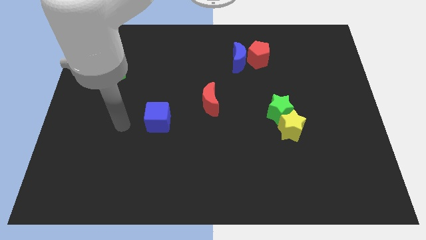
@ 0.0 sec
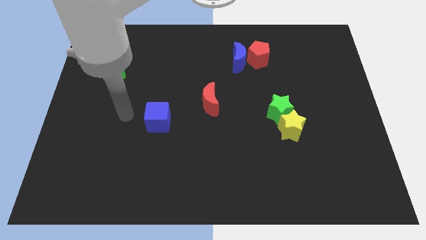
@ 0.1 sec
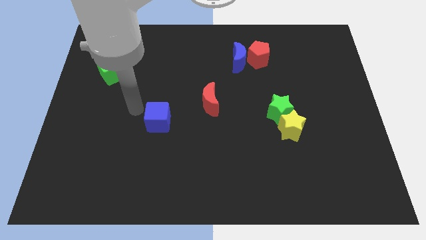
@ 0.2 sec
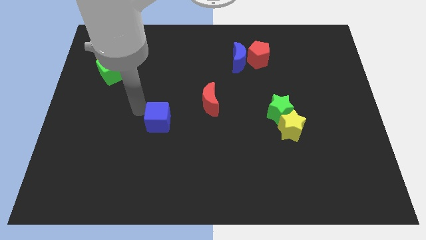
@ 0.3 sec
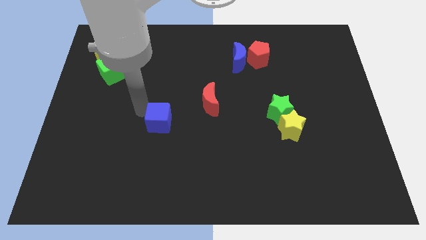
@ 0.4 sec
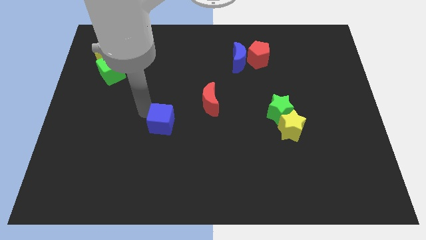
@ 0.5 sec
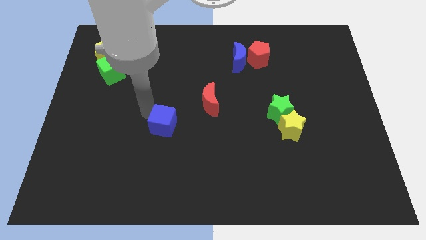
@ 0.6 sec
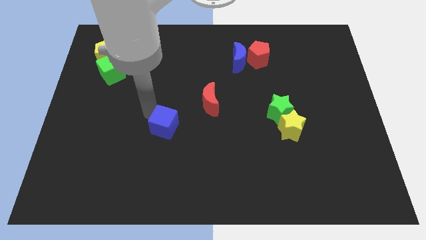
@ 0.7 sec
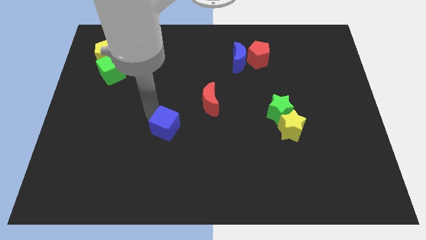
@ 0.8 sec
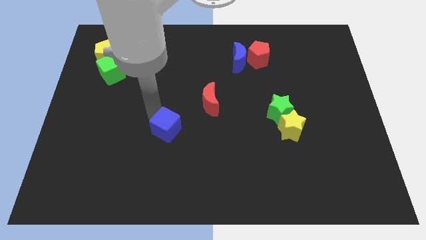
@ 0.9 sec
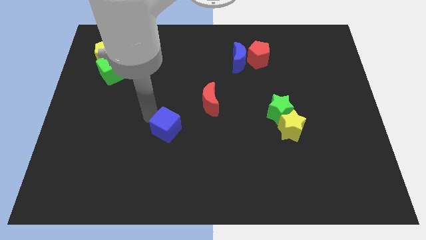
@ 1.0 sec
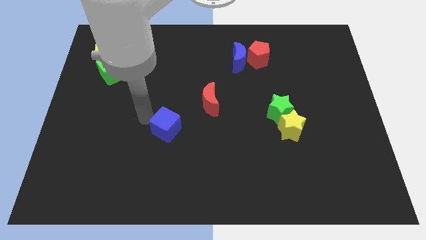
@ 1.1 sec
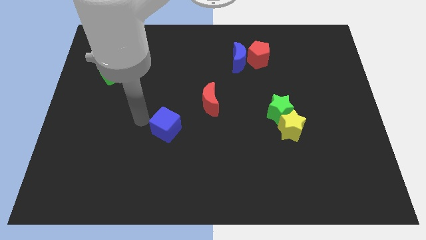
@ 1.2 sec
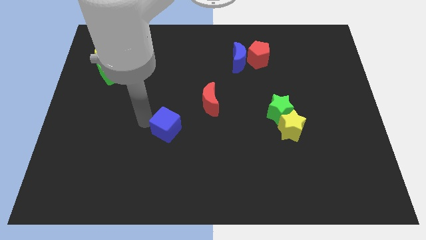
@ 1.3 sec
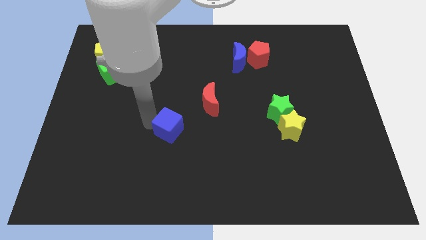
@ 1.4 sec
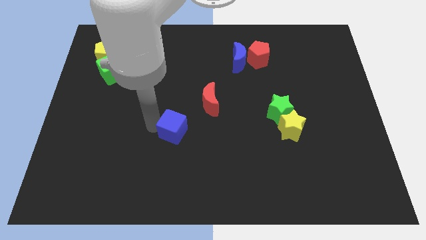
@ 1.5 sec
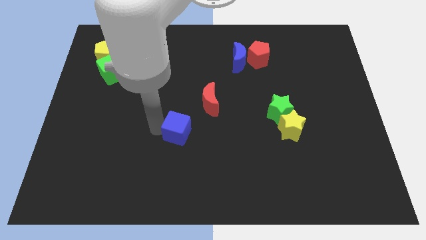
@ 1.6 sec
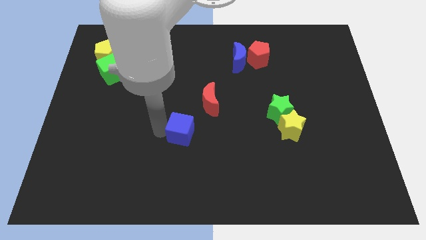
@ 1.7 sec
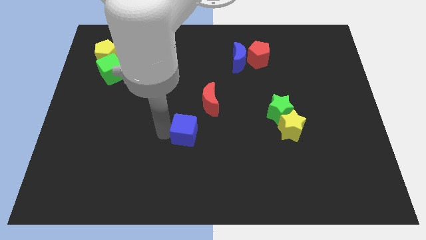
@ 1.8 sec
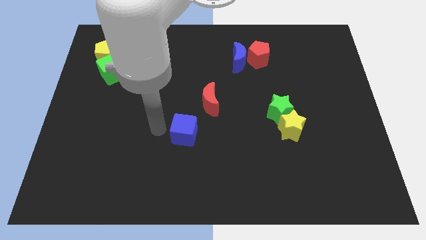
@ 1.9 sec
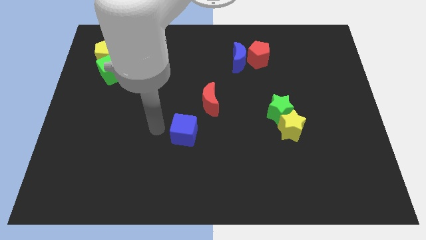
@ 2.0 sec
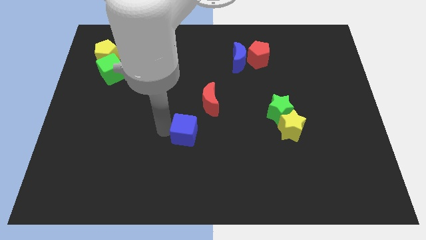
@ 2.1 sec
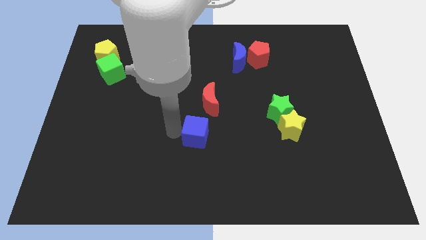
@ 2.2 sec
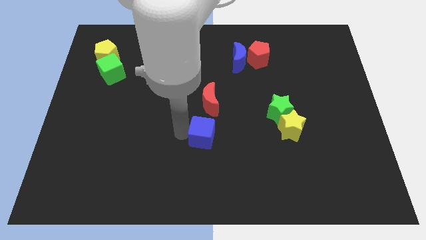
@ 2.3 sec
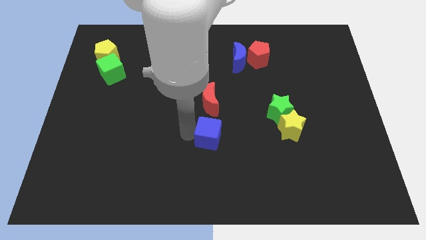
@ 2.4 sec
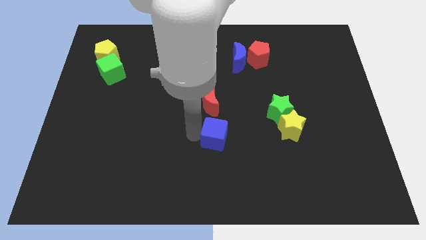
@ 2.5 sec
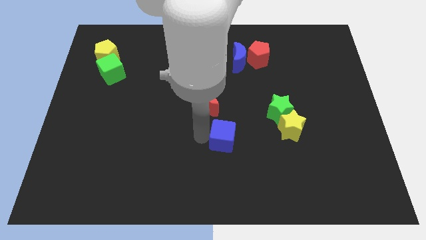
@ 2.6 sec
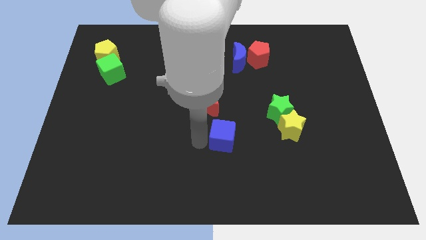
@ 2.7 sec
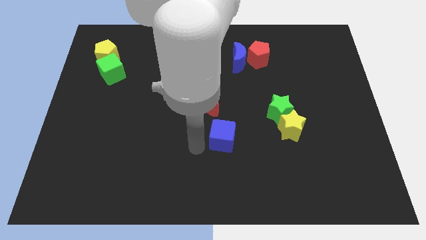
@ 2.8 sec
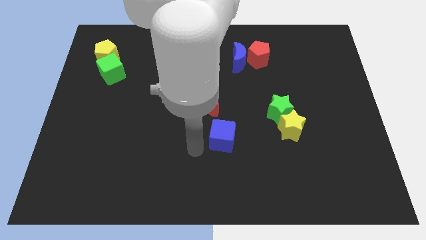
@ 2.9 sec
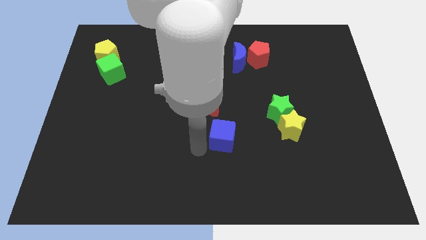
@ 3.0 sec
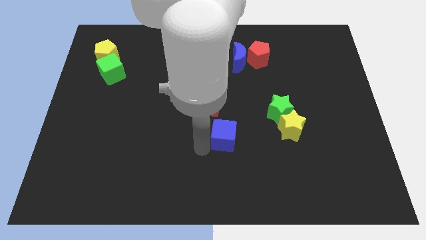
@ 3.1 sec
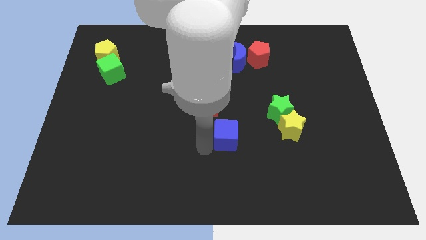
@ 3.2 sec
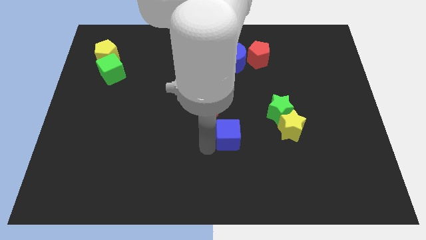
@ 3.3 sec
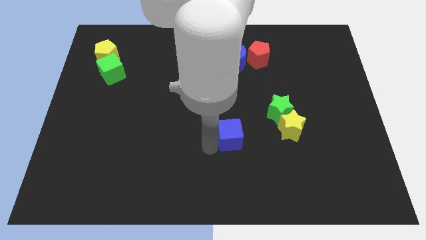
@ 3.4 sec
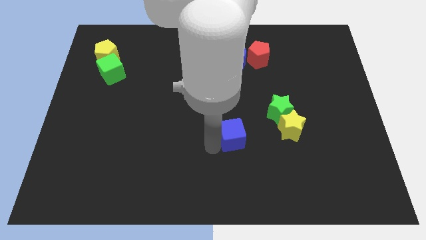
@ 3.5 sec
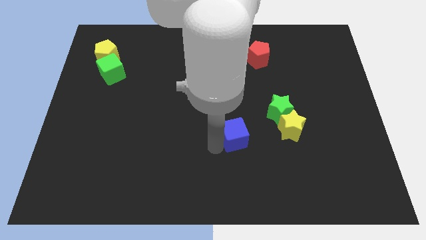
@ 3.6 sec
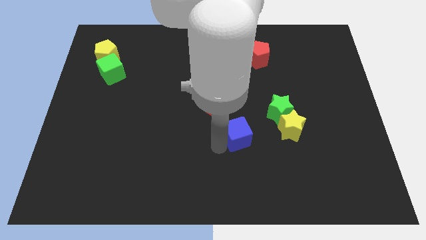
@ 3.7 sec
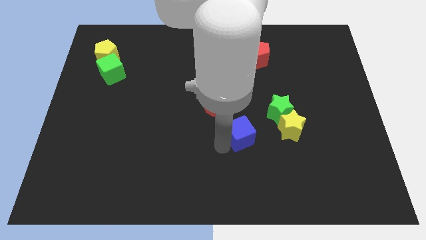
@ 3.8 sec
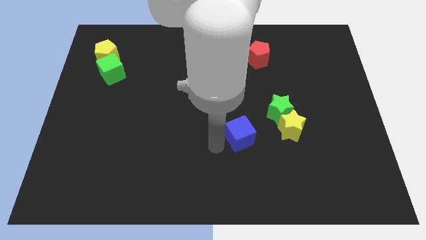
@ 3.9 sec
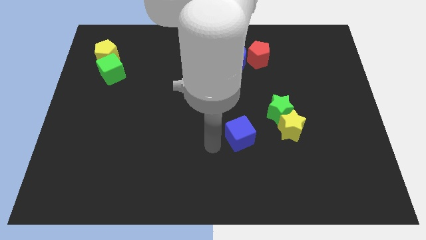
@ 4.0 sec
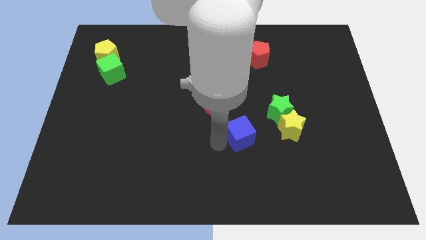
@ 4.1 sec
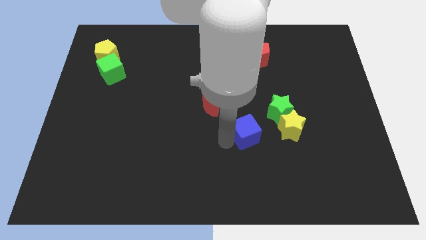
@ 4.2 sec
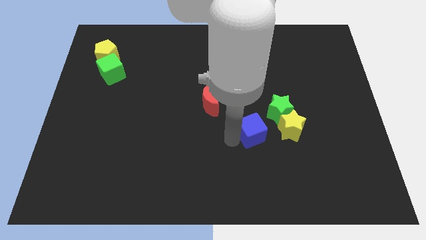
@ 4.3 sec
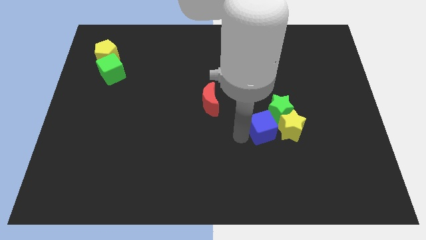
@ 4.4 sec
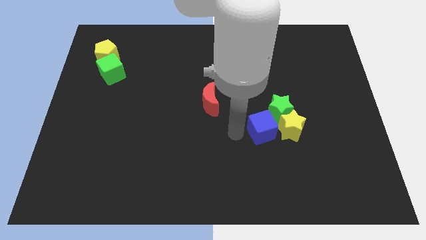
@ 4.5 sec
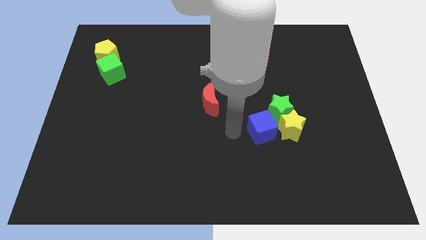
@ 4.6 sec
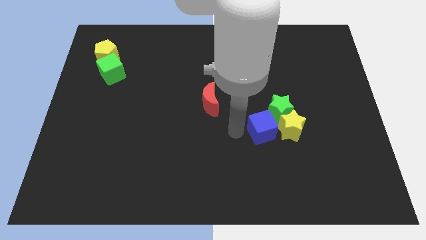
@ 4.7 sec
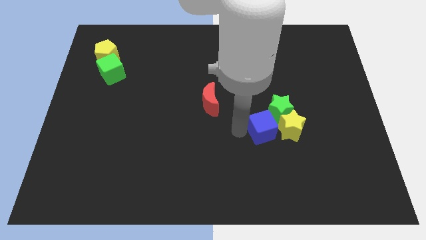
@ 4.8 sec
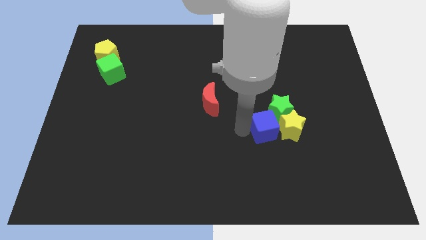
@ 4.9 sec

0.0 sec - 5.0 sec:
put the blue cube towards the yellow star

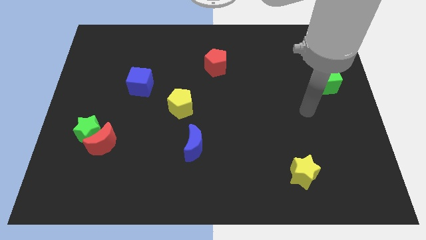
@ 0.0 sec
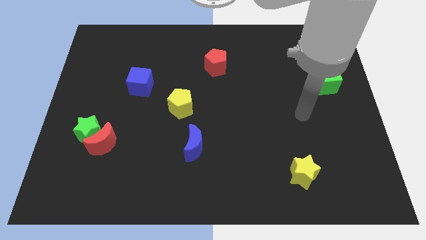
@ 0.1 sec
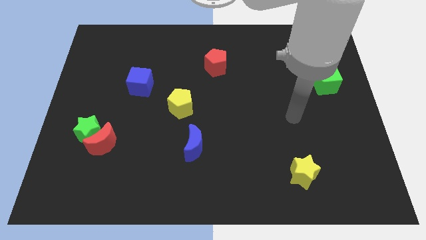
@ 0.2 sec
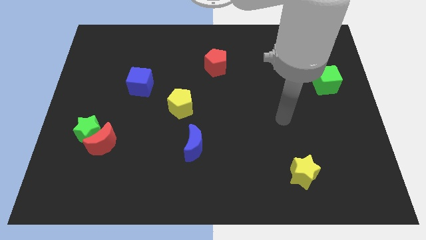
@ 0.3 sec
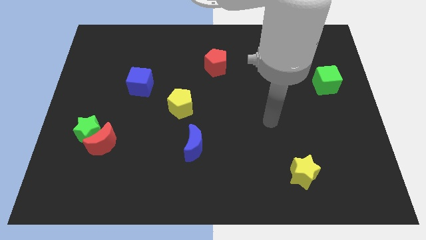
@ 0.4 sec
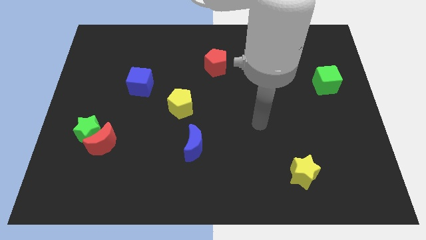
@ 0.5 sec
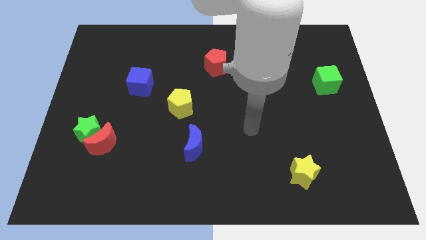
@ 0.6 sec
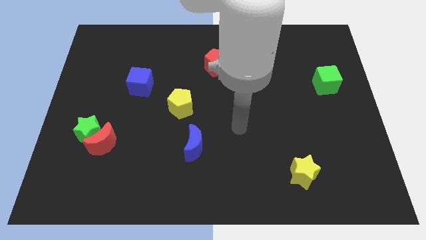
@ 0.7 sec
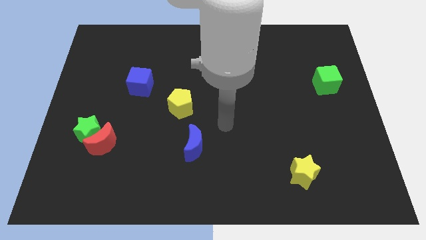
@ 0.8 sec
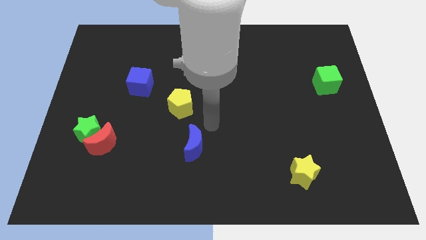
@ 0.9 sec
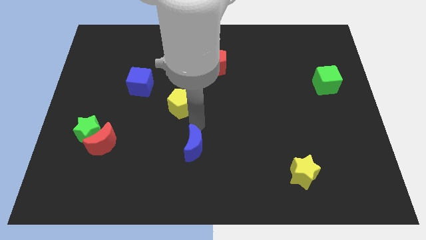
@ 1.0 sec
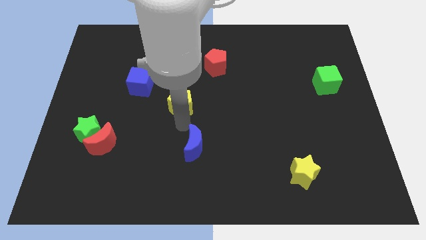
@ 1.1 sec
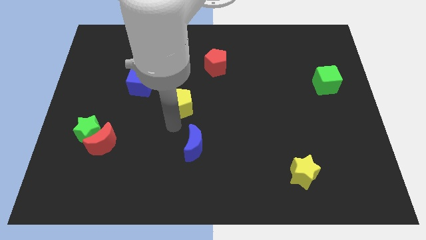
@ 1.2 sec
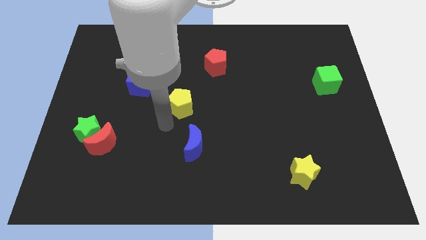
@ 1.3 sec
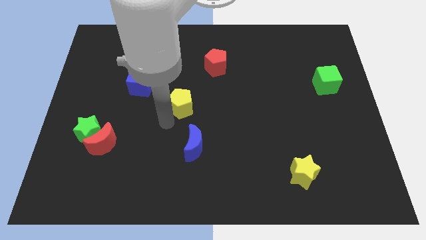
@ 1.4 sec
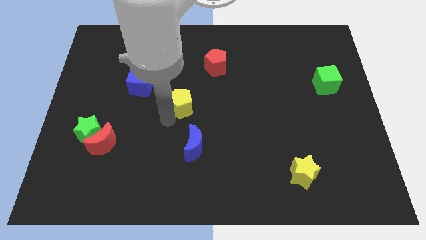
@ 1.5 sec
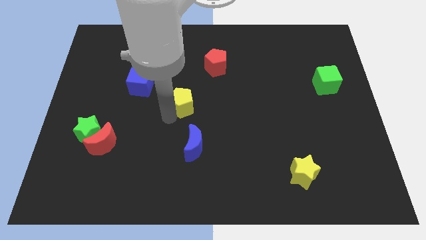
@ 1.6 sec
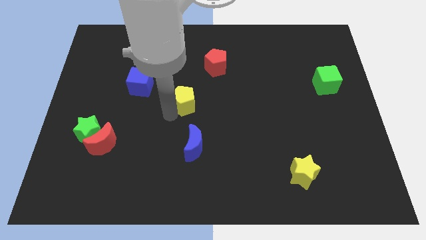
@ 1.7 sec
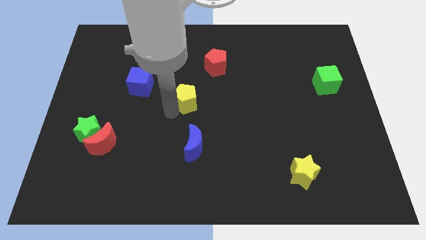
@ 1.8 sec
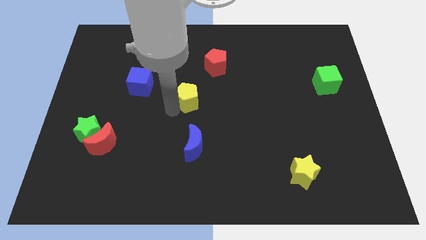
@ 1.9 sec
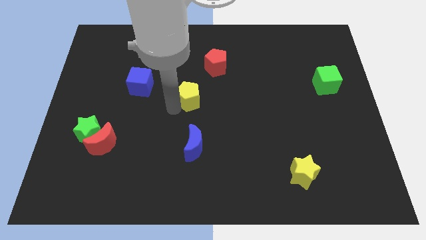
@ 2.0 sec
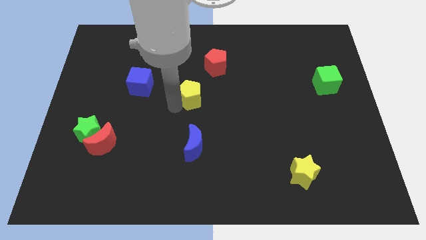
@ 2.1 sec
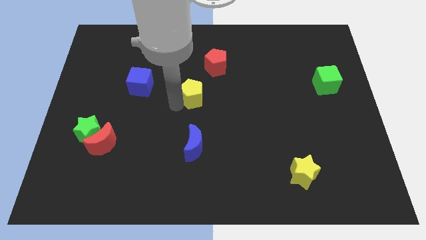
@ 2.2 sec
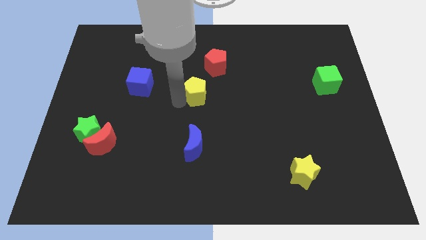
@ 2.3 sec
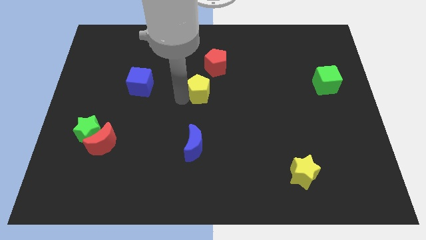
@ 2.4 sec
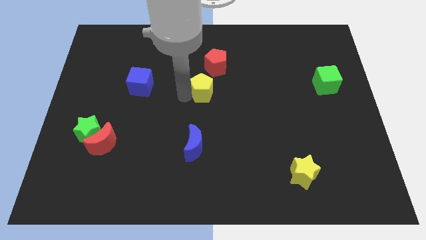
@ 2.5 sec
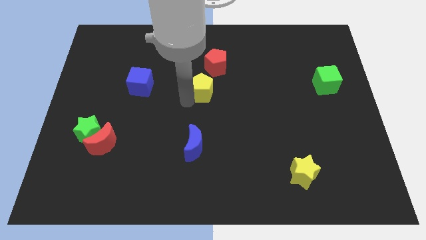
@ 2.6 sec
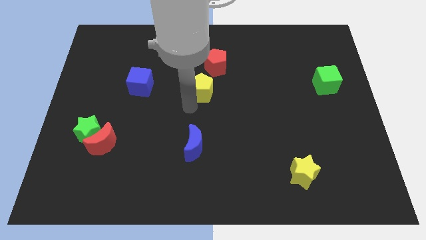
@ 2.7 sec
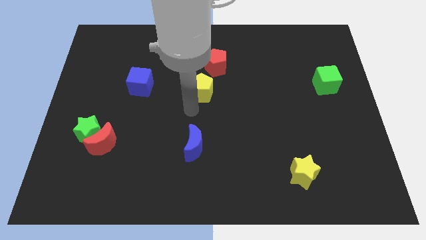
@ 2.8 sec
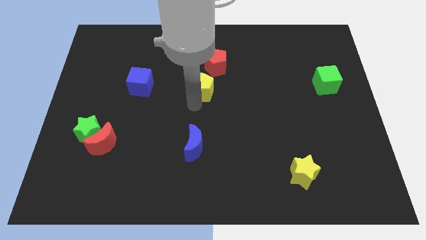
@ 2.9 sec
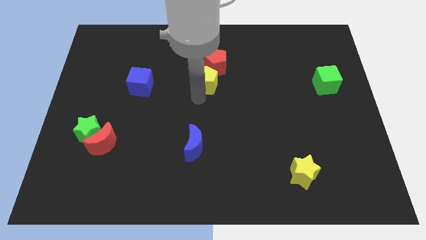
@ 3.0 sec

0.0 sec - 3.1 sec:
push the yellow pentagon to the red pentagon
